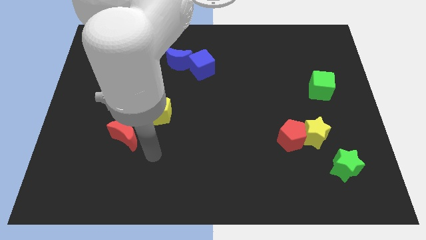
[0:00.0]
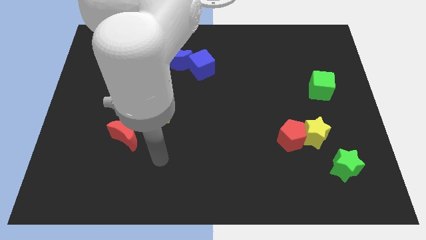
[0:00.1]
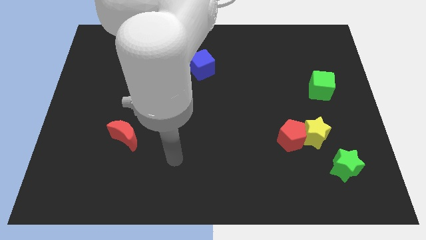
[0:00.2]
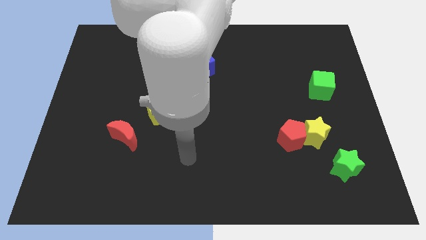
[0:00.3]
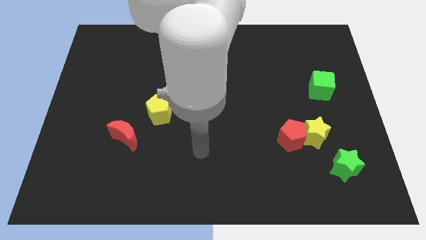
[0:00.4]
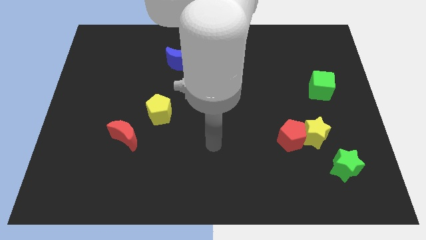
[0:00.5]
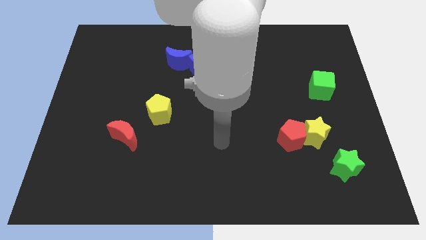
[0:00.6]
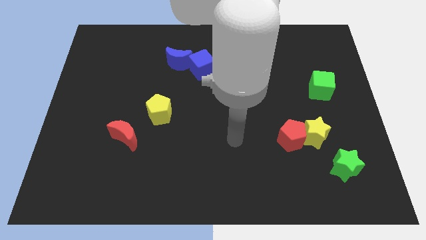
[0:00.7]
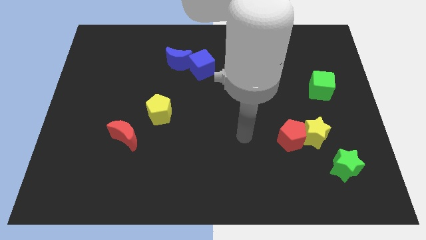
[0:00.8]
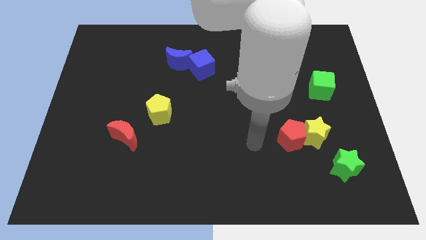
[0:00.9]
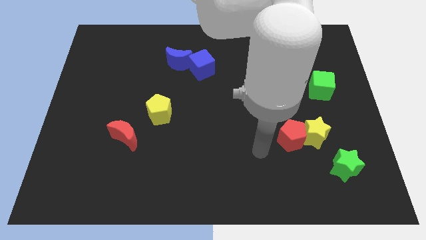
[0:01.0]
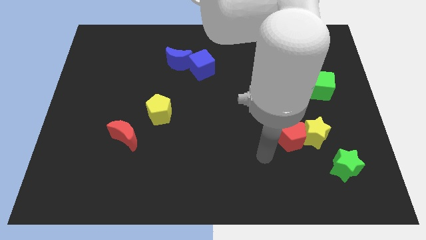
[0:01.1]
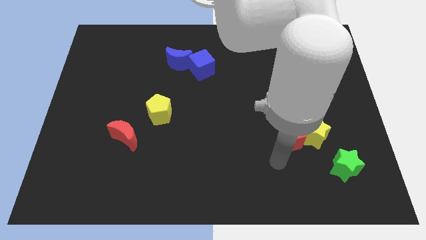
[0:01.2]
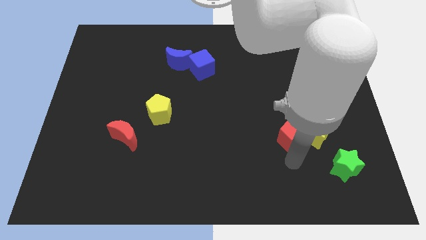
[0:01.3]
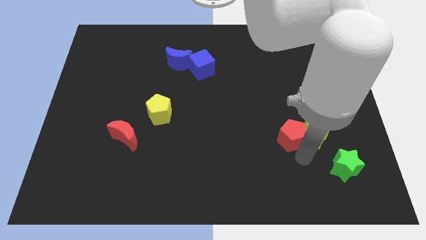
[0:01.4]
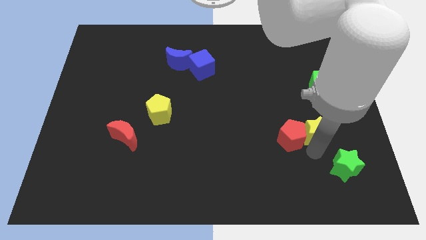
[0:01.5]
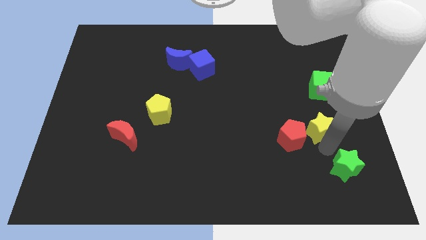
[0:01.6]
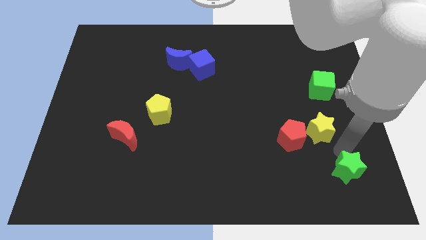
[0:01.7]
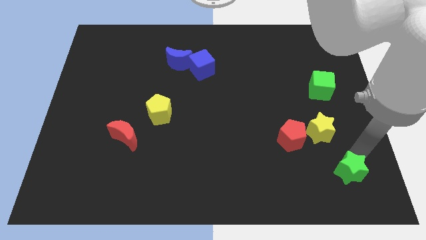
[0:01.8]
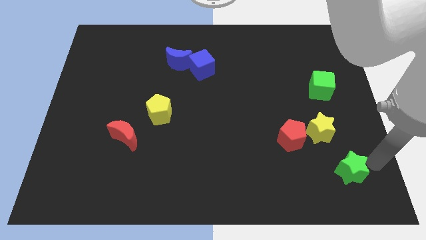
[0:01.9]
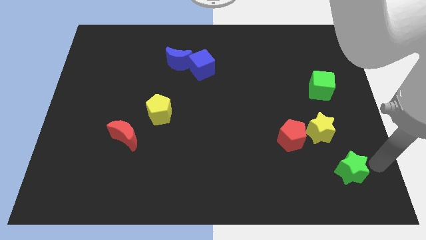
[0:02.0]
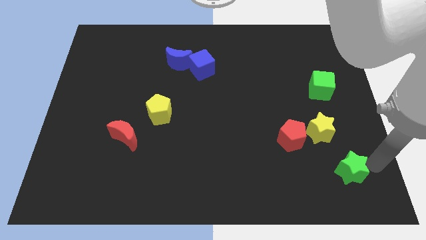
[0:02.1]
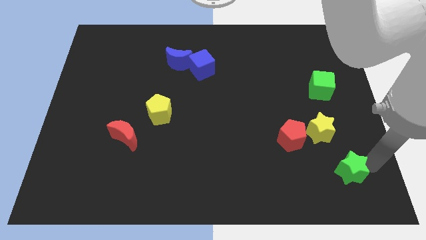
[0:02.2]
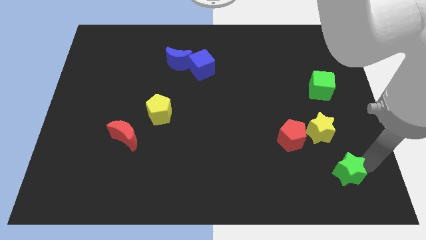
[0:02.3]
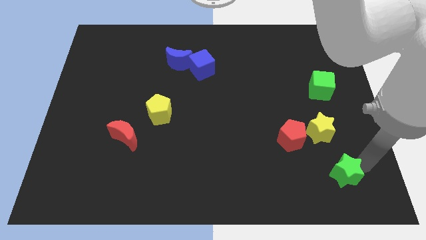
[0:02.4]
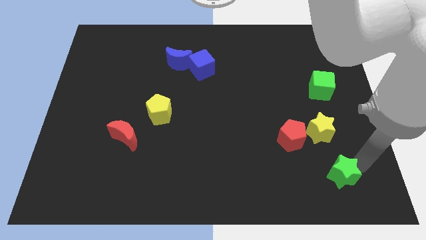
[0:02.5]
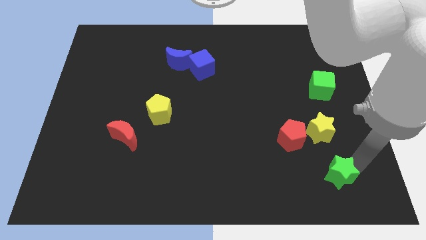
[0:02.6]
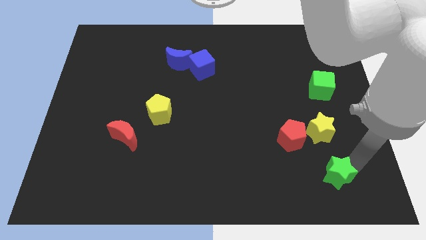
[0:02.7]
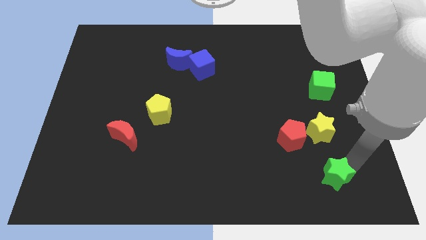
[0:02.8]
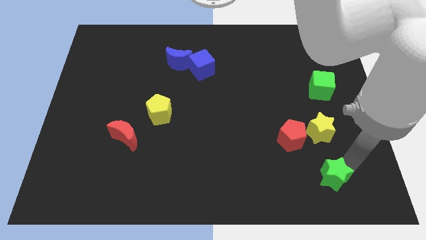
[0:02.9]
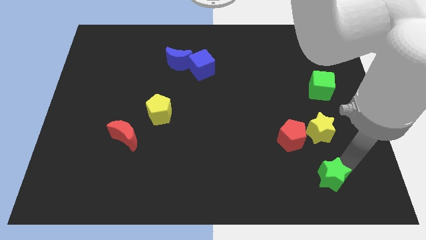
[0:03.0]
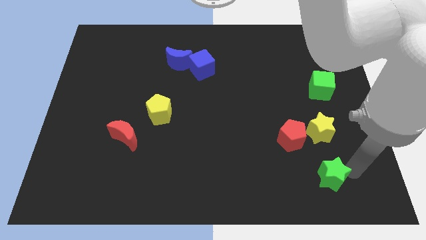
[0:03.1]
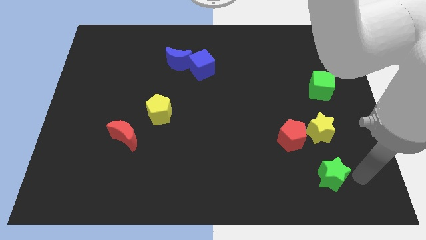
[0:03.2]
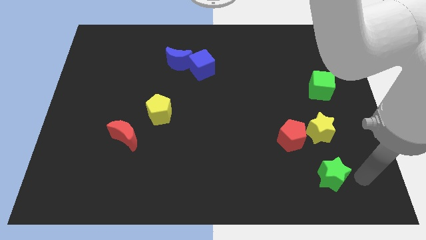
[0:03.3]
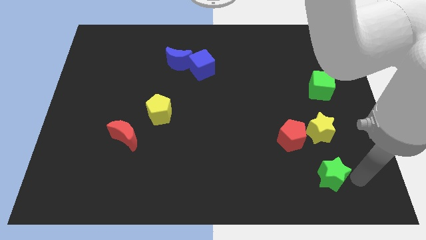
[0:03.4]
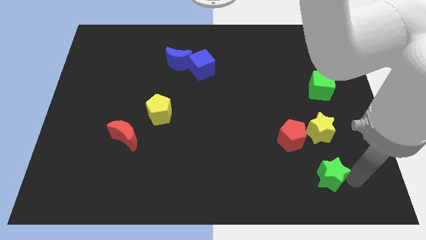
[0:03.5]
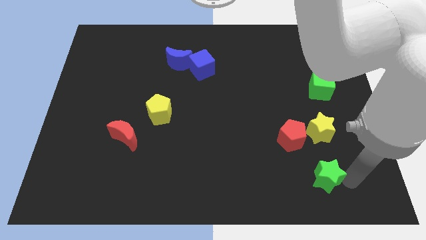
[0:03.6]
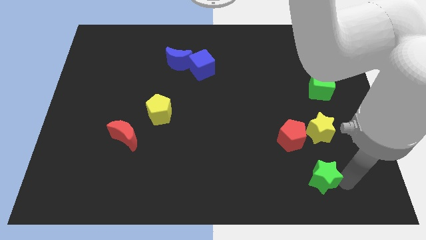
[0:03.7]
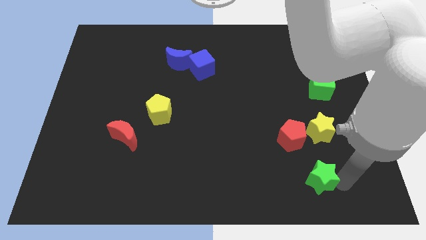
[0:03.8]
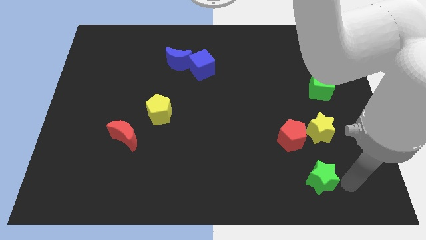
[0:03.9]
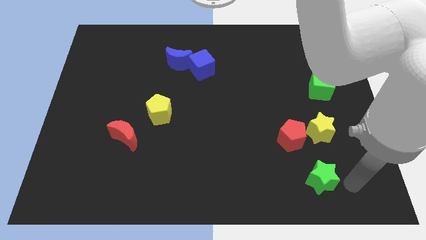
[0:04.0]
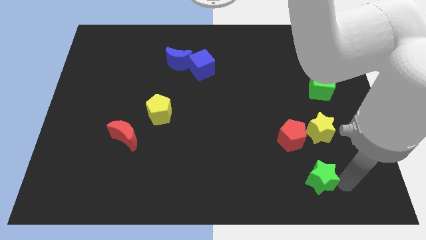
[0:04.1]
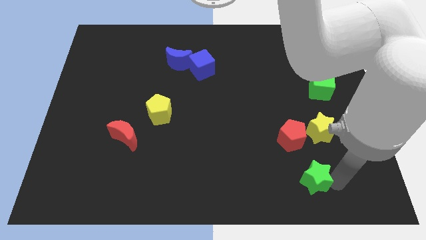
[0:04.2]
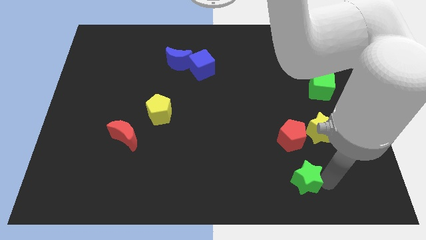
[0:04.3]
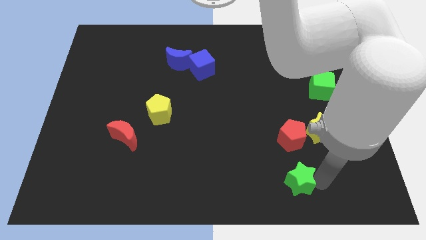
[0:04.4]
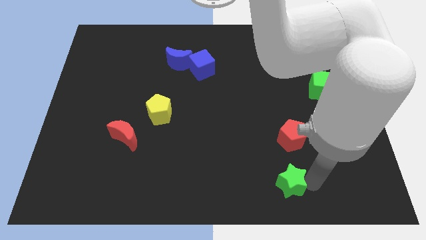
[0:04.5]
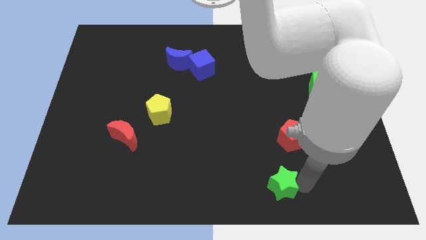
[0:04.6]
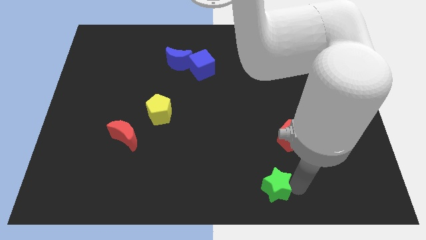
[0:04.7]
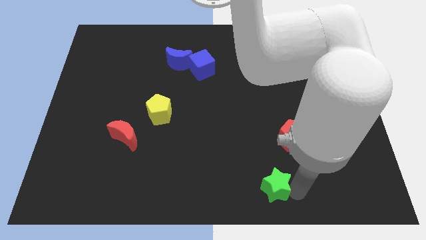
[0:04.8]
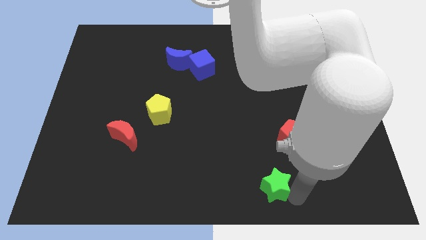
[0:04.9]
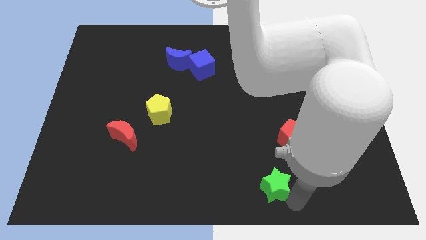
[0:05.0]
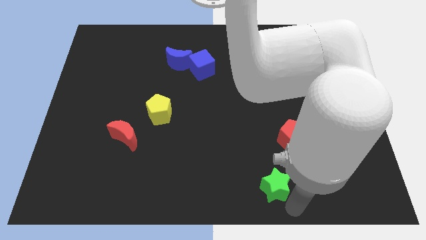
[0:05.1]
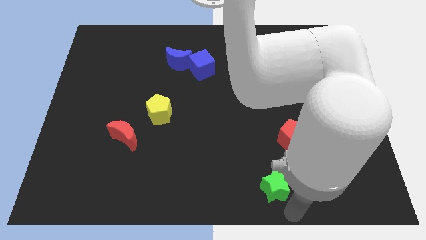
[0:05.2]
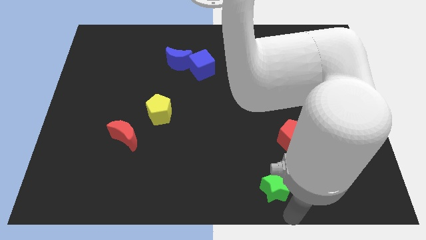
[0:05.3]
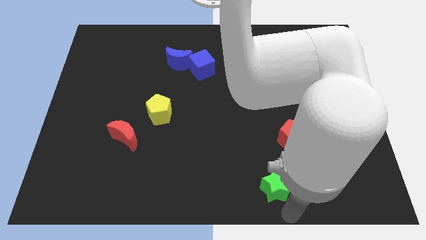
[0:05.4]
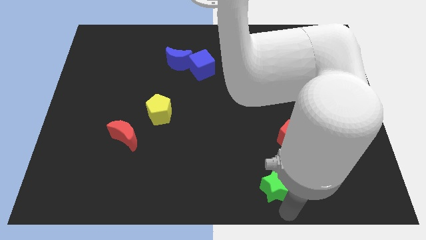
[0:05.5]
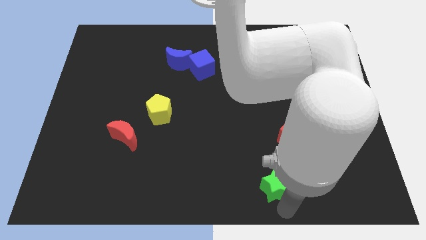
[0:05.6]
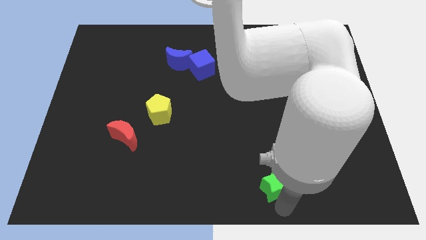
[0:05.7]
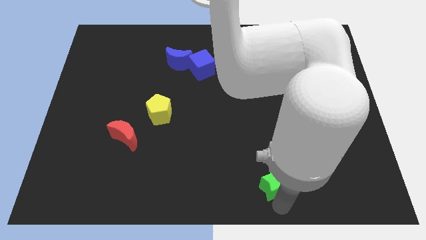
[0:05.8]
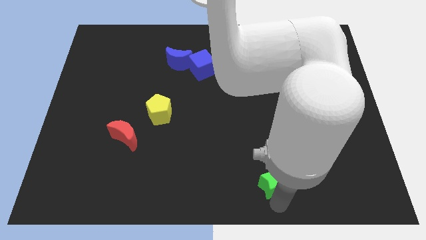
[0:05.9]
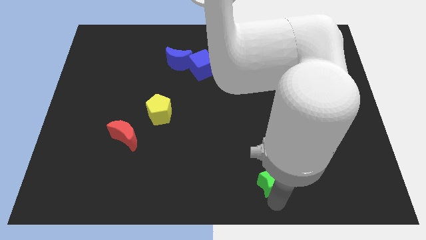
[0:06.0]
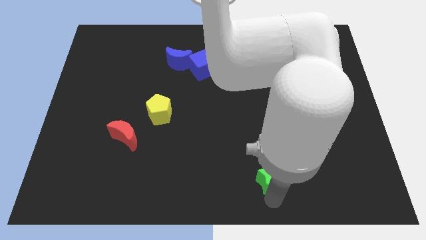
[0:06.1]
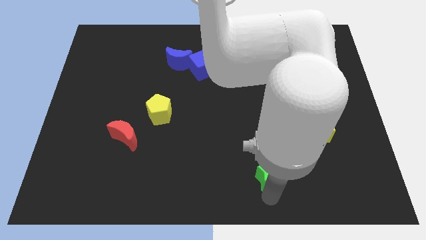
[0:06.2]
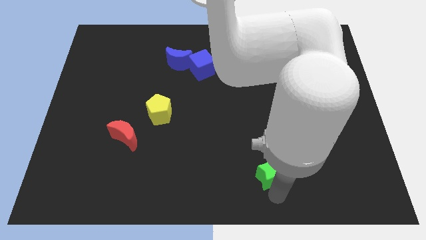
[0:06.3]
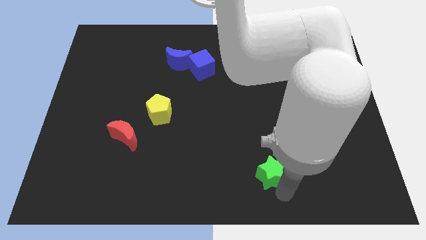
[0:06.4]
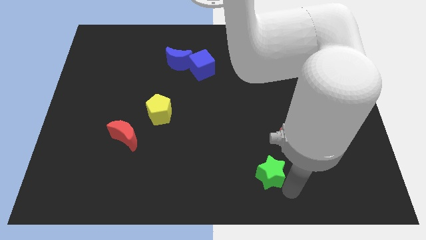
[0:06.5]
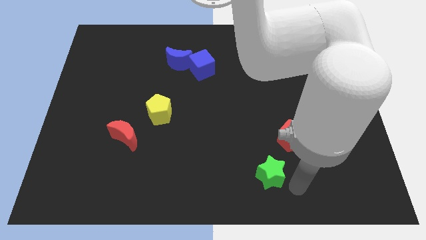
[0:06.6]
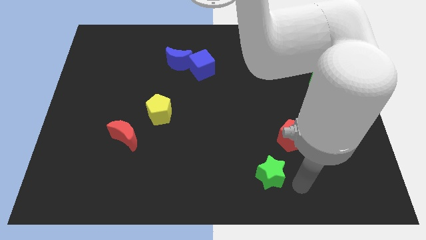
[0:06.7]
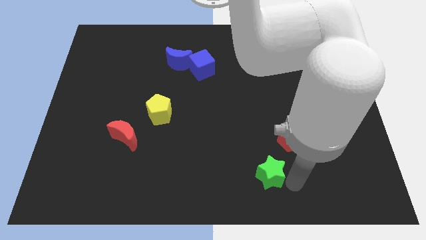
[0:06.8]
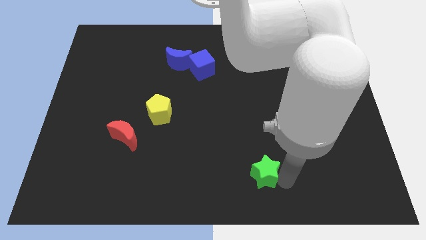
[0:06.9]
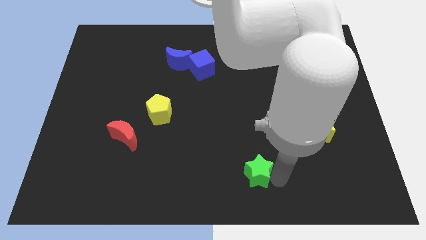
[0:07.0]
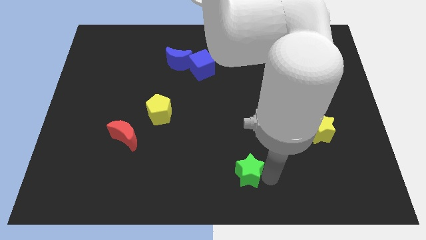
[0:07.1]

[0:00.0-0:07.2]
slide the green star left

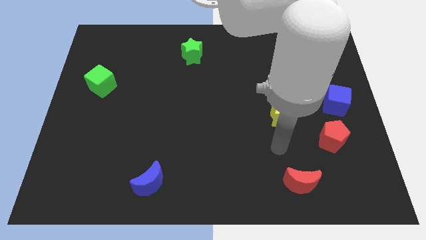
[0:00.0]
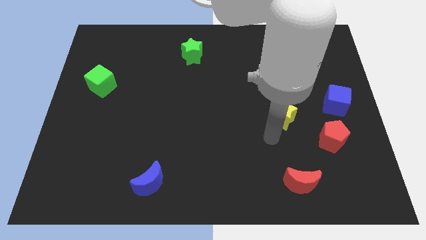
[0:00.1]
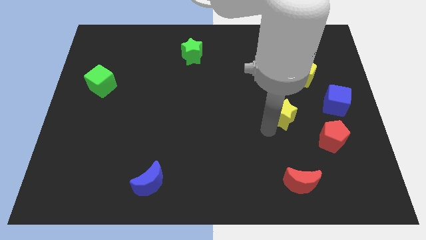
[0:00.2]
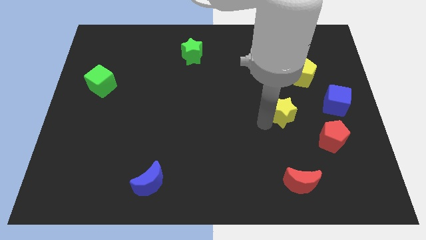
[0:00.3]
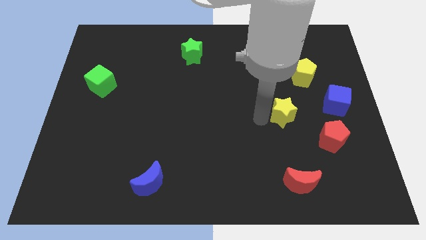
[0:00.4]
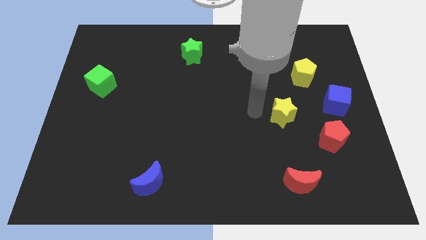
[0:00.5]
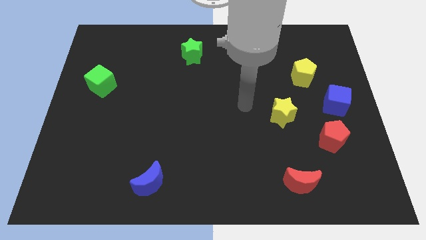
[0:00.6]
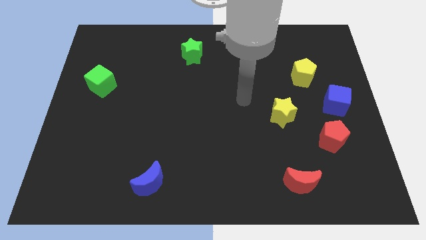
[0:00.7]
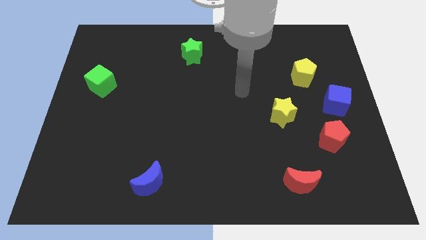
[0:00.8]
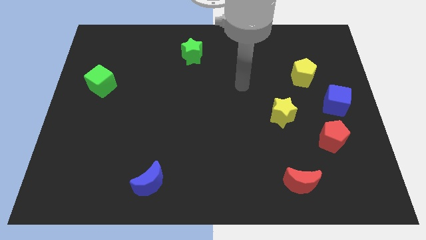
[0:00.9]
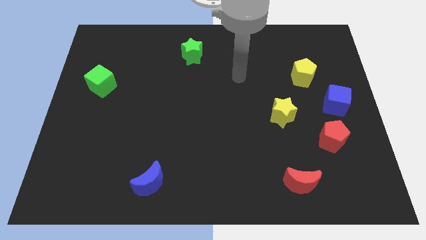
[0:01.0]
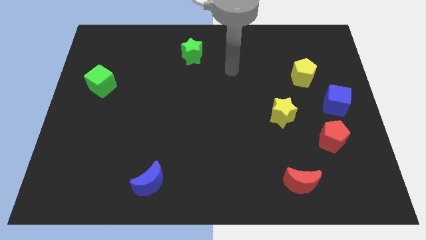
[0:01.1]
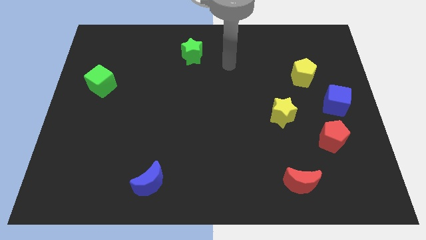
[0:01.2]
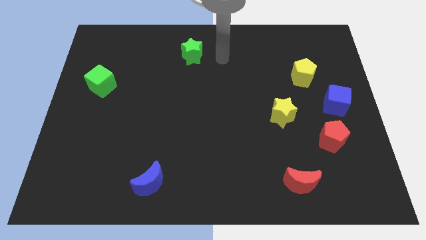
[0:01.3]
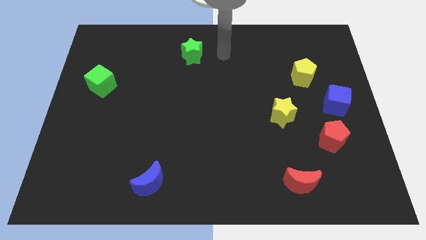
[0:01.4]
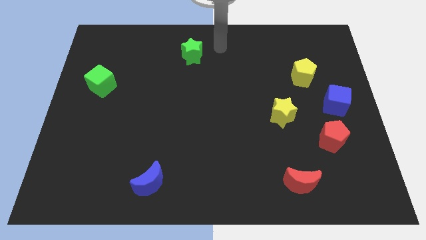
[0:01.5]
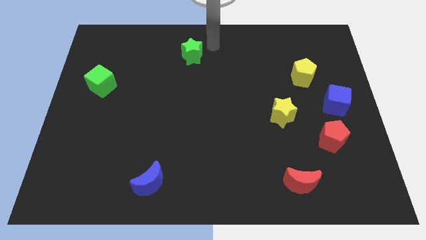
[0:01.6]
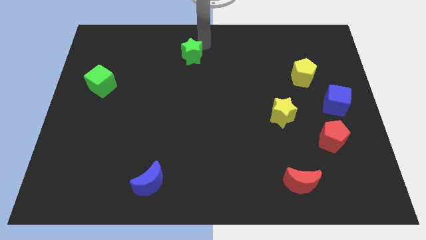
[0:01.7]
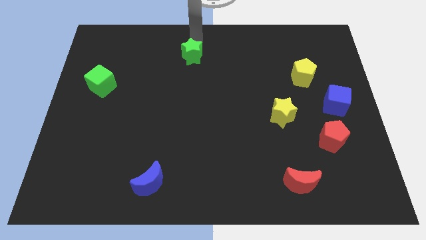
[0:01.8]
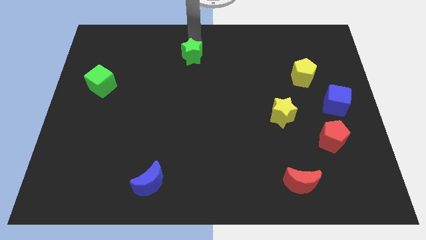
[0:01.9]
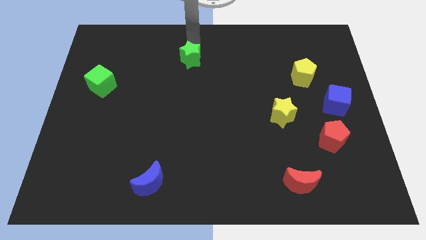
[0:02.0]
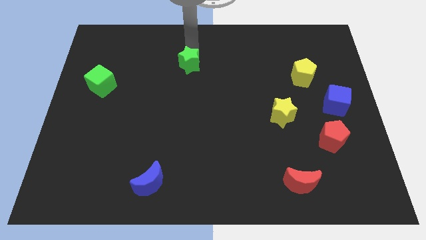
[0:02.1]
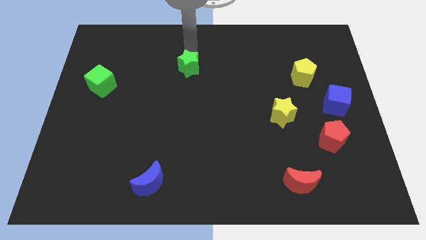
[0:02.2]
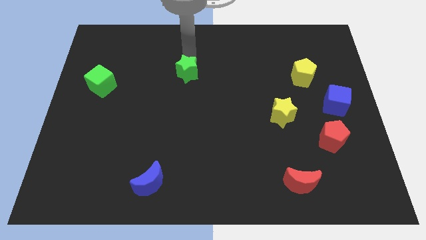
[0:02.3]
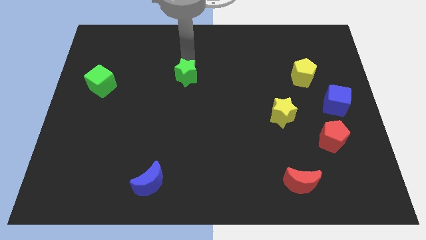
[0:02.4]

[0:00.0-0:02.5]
slide the green star somewhat downwards
